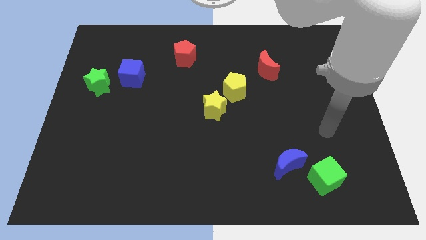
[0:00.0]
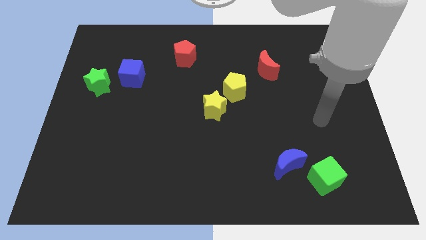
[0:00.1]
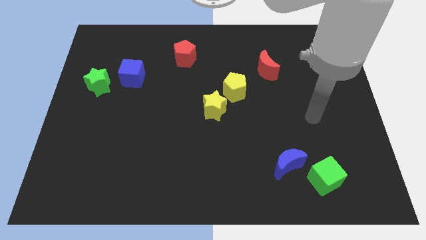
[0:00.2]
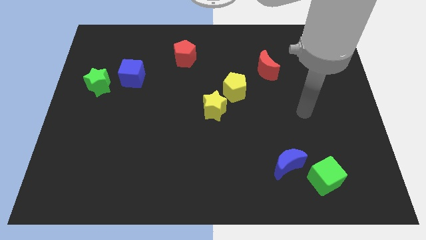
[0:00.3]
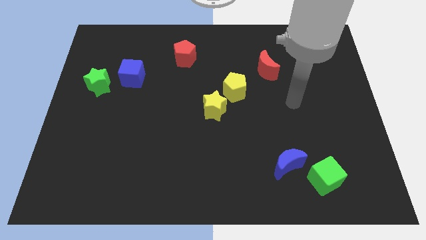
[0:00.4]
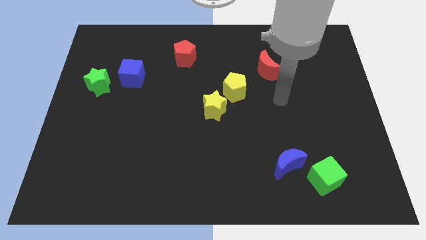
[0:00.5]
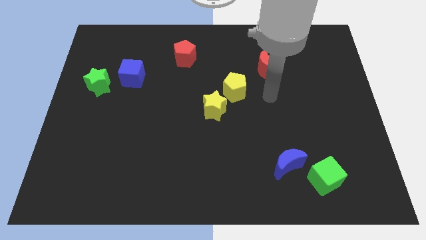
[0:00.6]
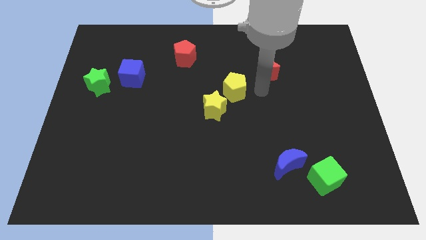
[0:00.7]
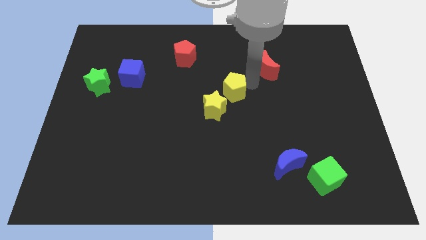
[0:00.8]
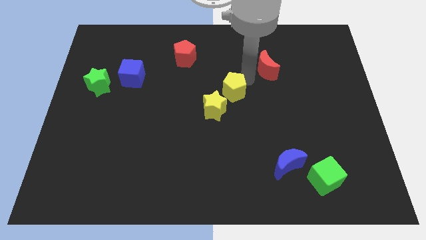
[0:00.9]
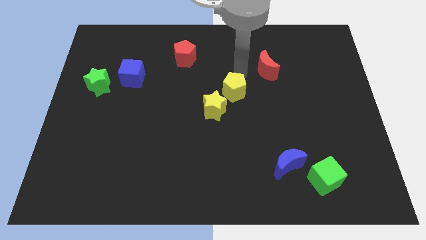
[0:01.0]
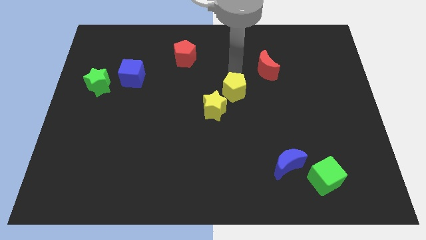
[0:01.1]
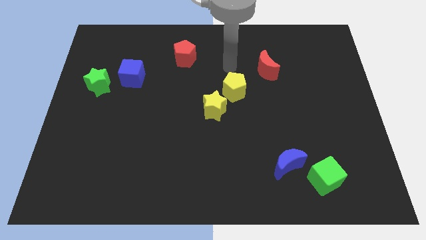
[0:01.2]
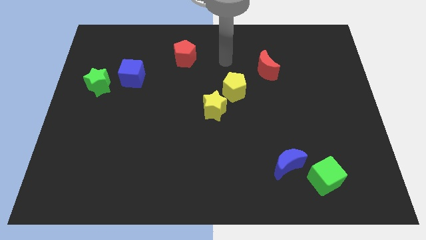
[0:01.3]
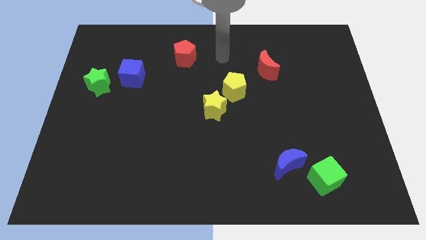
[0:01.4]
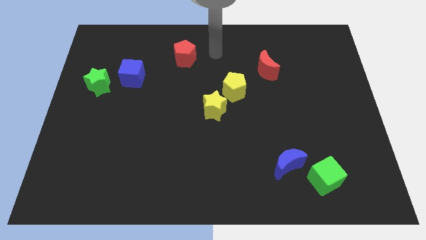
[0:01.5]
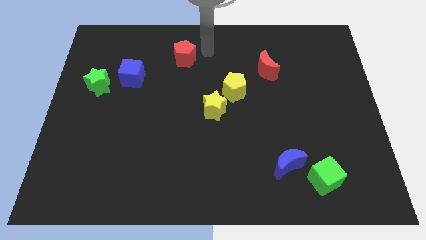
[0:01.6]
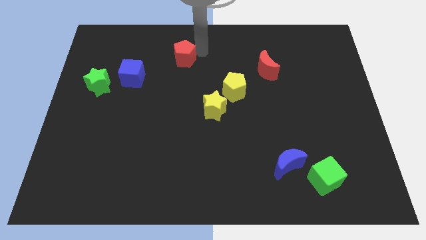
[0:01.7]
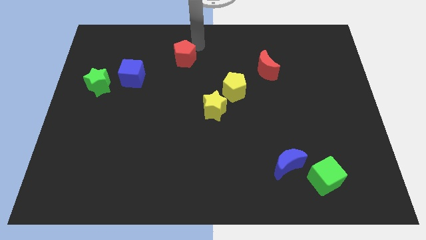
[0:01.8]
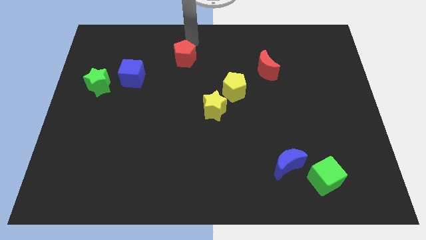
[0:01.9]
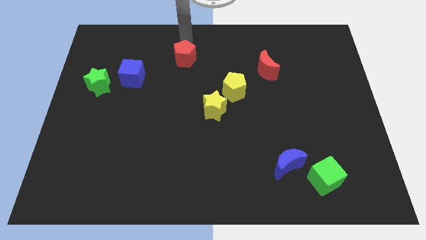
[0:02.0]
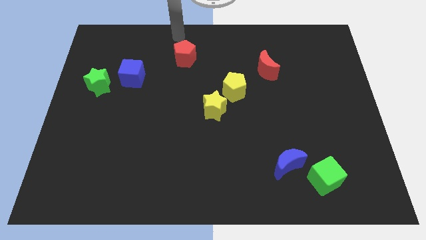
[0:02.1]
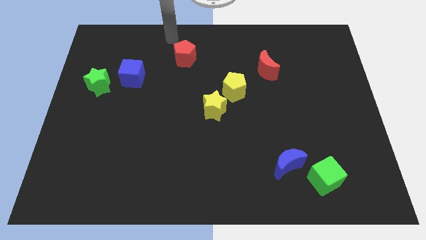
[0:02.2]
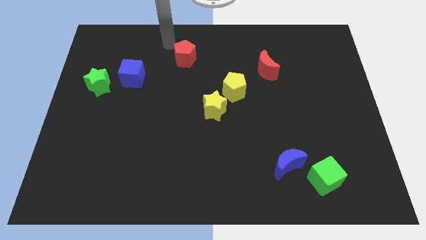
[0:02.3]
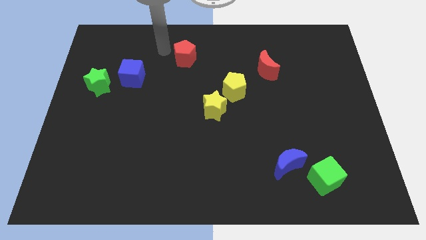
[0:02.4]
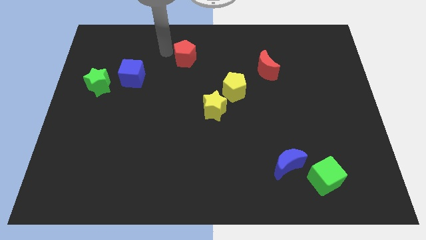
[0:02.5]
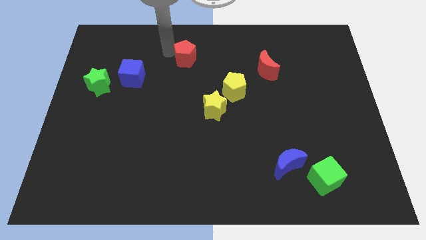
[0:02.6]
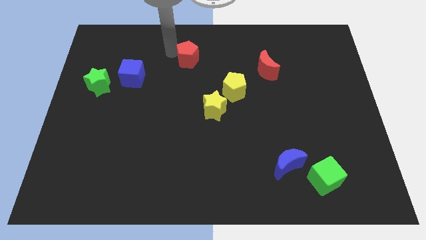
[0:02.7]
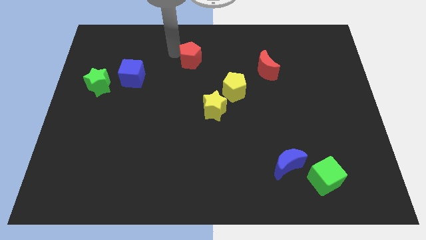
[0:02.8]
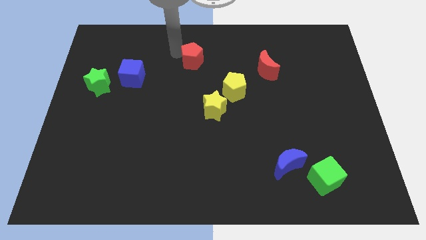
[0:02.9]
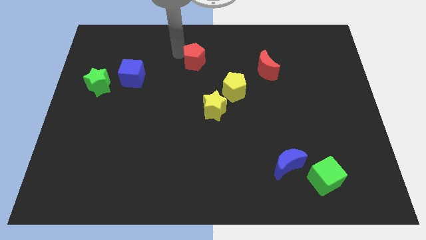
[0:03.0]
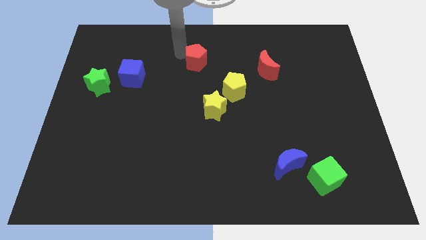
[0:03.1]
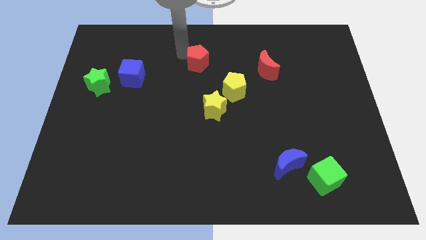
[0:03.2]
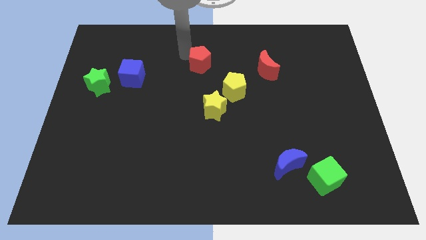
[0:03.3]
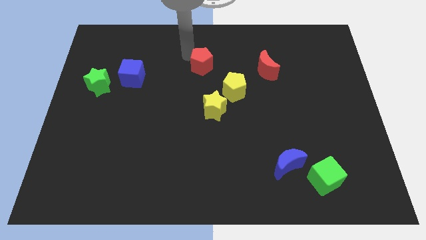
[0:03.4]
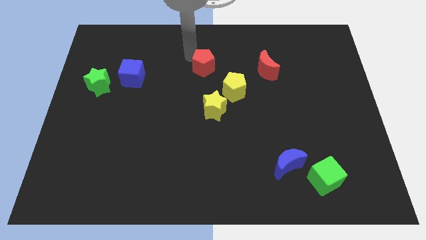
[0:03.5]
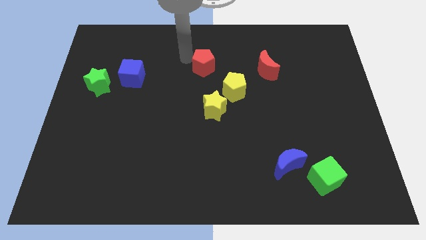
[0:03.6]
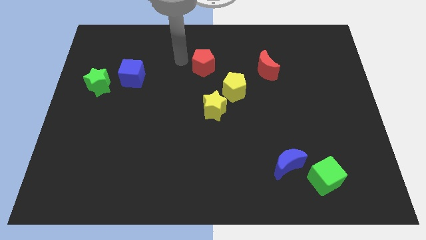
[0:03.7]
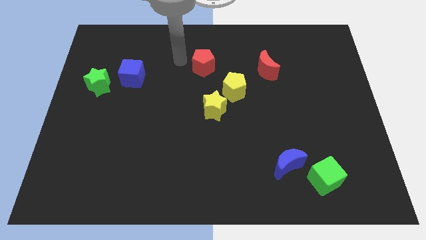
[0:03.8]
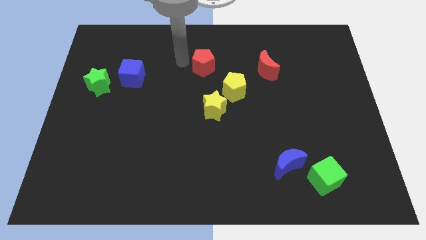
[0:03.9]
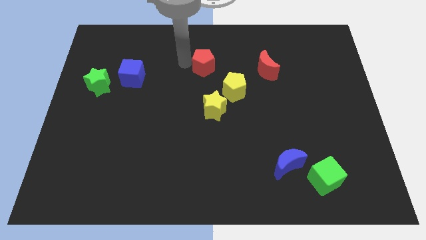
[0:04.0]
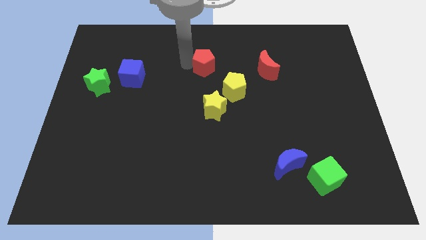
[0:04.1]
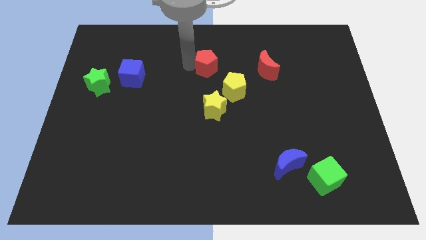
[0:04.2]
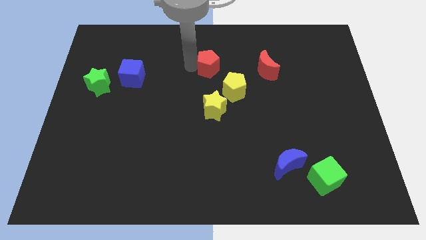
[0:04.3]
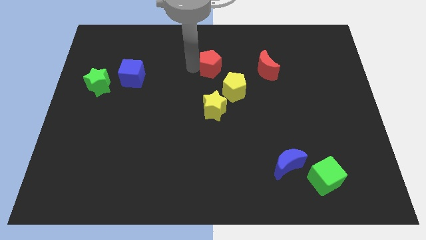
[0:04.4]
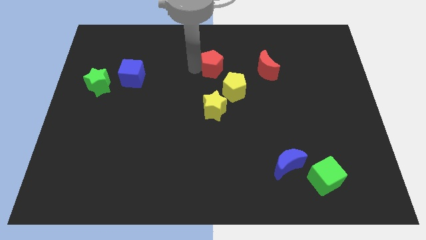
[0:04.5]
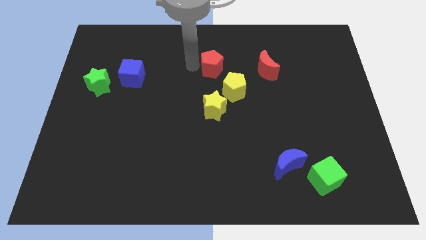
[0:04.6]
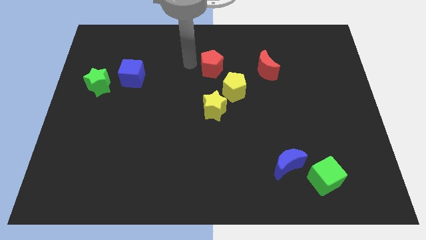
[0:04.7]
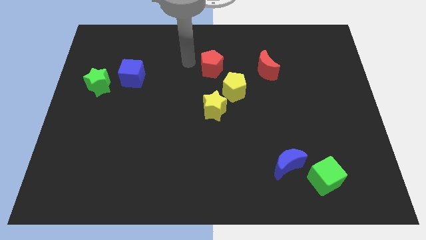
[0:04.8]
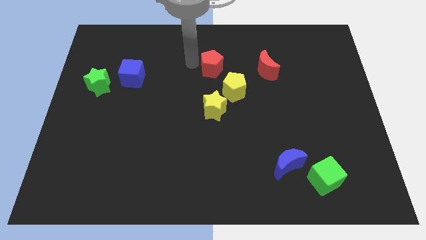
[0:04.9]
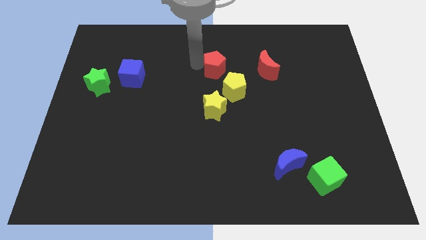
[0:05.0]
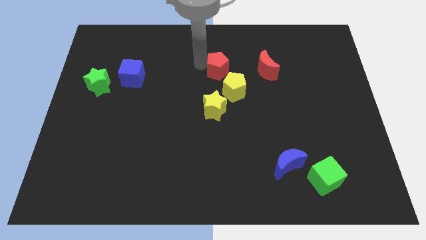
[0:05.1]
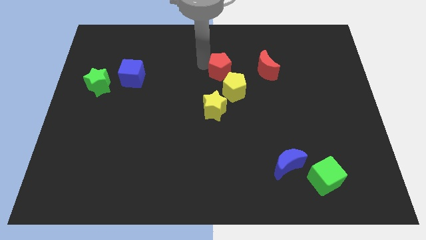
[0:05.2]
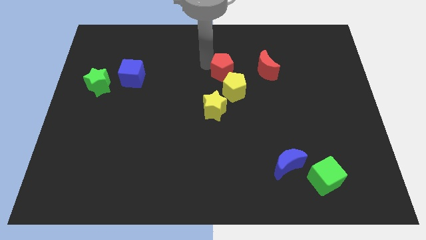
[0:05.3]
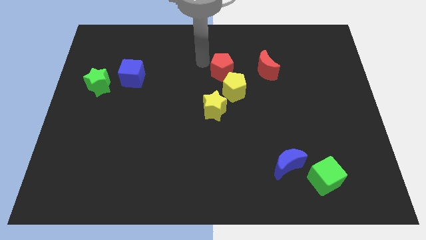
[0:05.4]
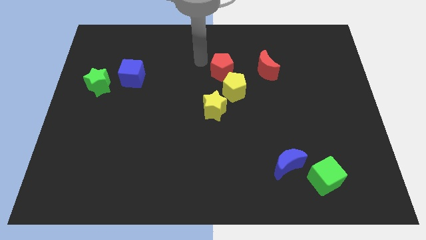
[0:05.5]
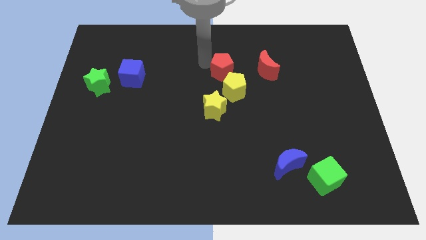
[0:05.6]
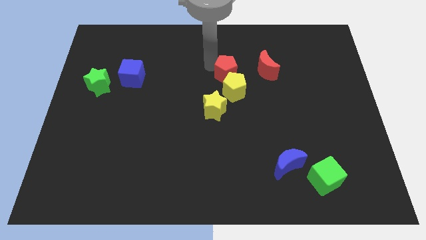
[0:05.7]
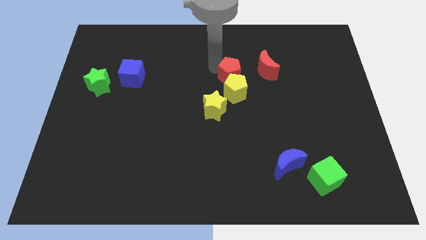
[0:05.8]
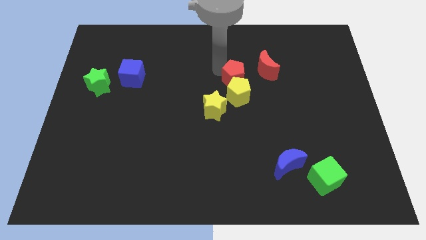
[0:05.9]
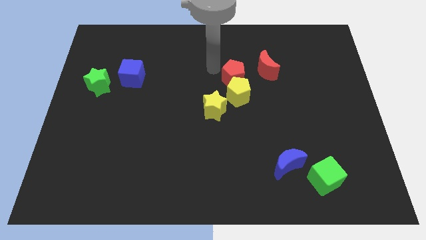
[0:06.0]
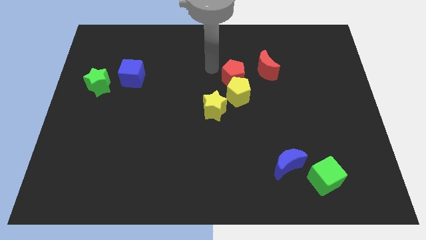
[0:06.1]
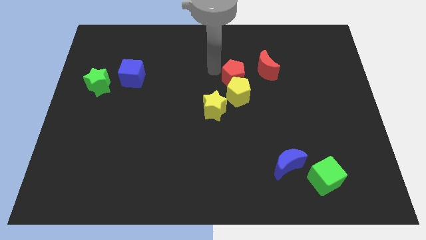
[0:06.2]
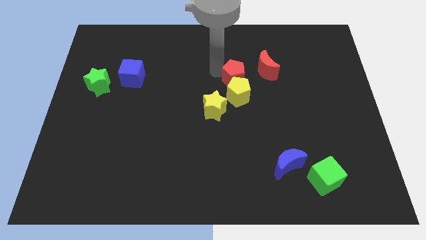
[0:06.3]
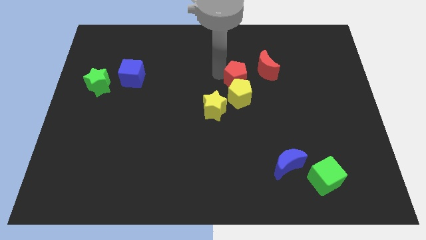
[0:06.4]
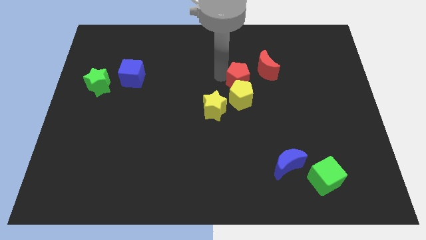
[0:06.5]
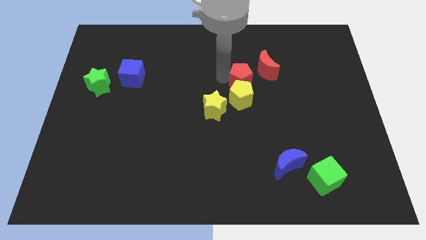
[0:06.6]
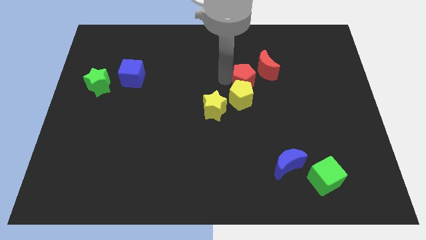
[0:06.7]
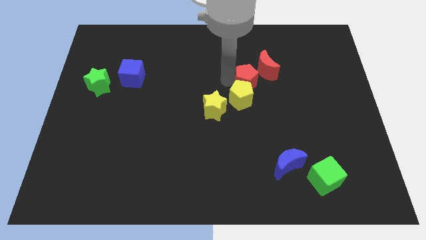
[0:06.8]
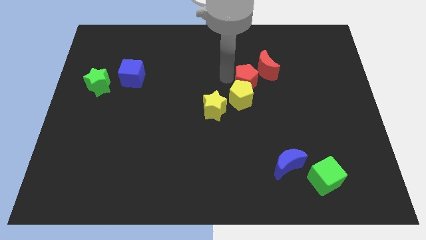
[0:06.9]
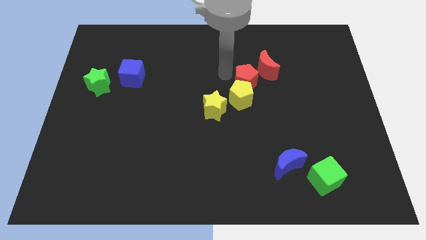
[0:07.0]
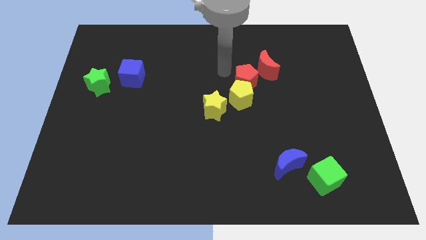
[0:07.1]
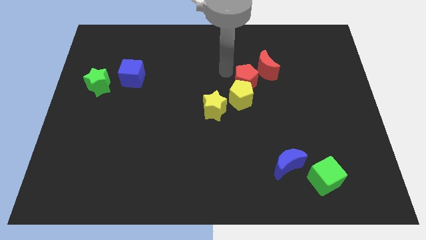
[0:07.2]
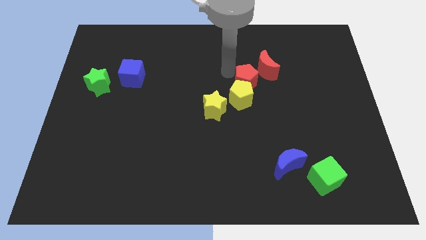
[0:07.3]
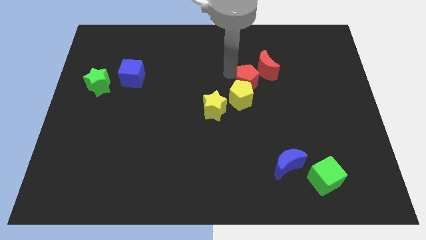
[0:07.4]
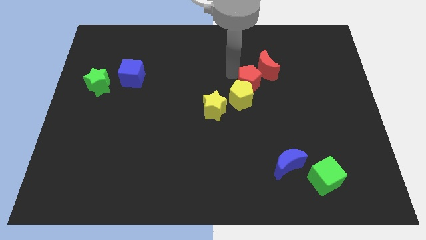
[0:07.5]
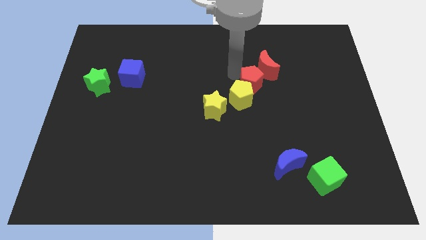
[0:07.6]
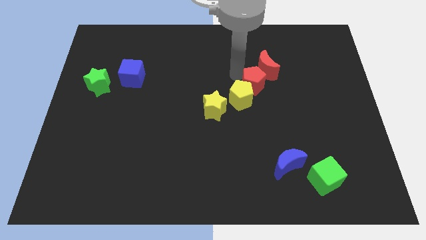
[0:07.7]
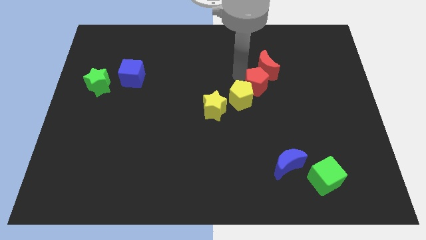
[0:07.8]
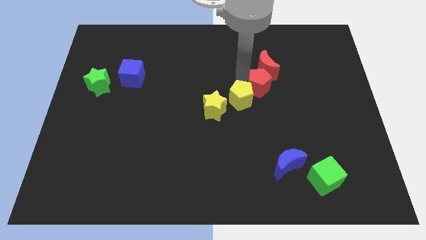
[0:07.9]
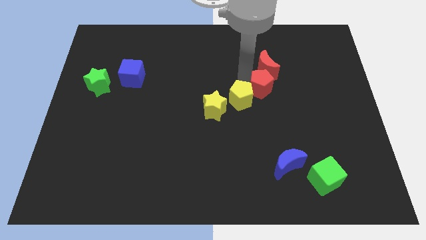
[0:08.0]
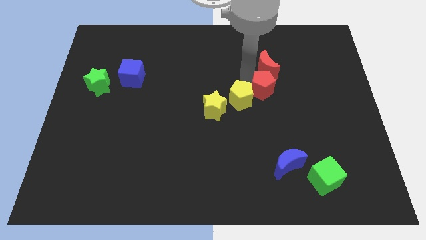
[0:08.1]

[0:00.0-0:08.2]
slide the red pentagon diagonally down and right
